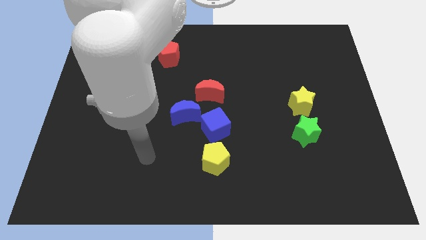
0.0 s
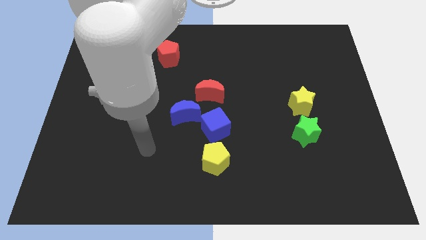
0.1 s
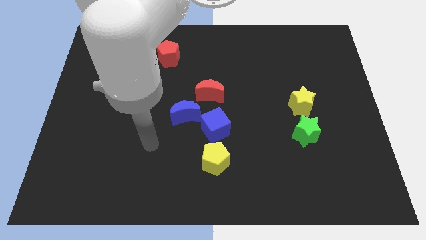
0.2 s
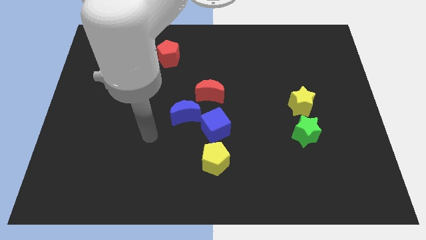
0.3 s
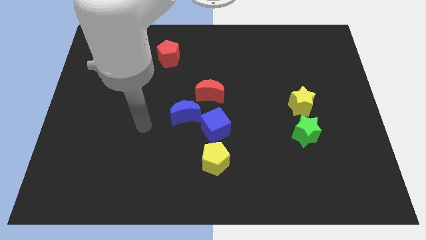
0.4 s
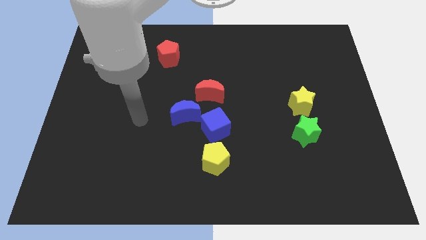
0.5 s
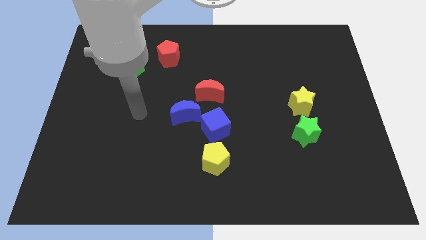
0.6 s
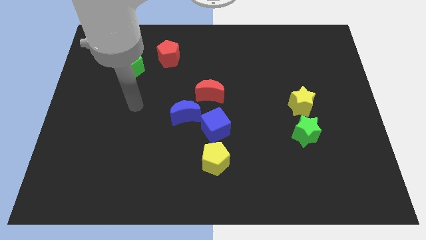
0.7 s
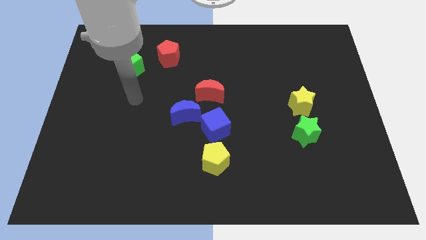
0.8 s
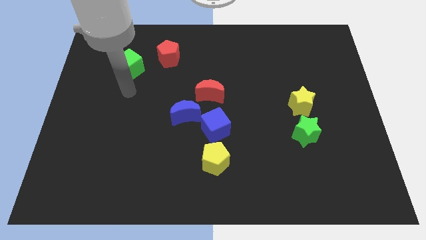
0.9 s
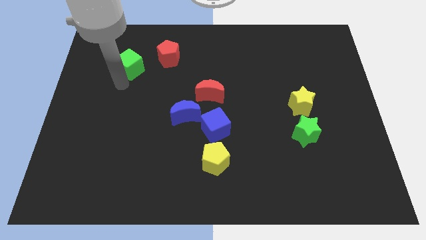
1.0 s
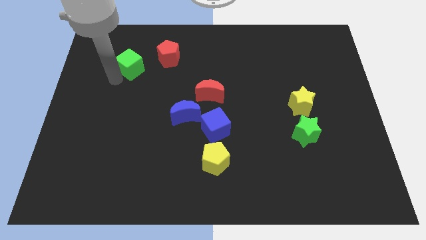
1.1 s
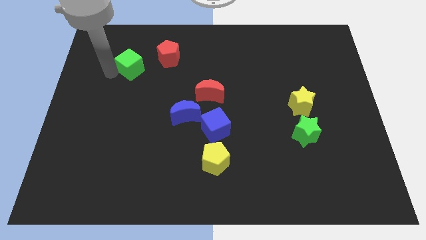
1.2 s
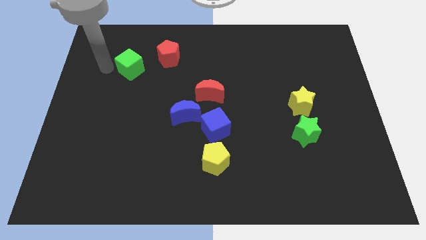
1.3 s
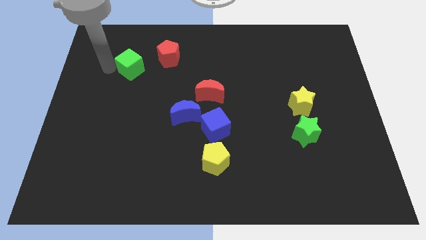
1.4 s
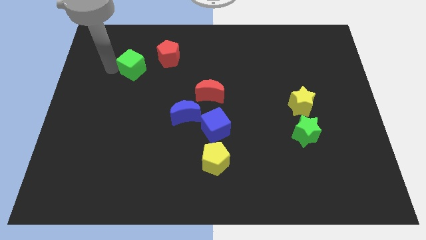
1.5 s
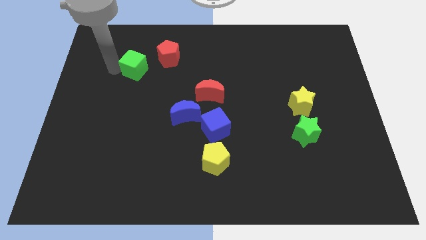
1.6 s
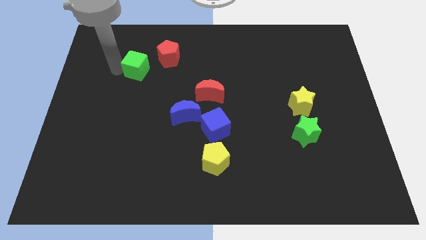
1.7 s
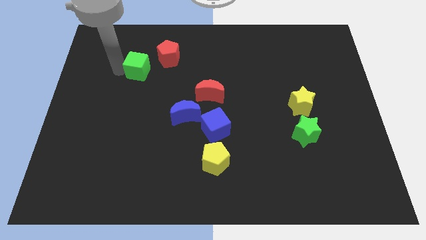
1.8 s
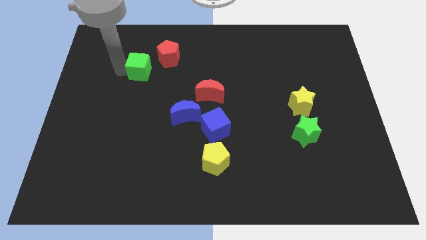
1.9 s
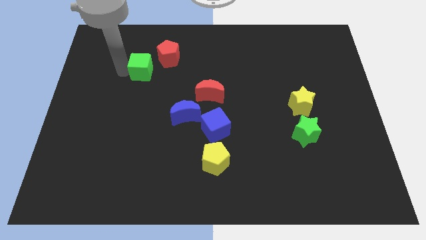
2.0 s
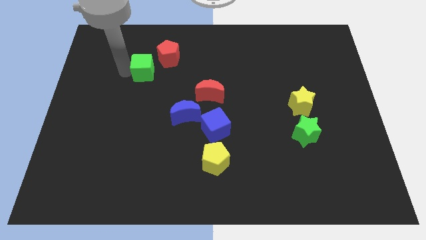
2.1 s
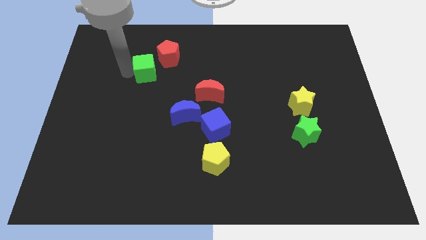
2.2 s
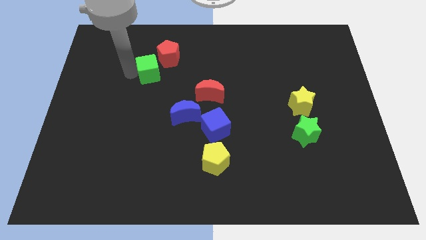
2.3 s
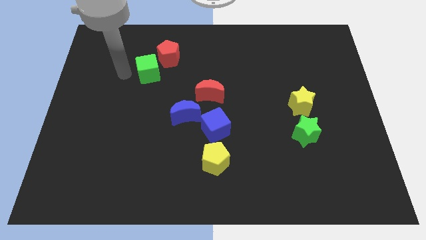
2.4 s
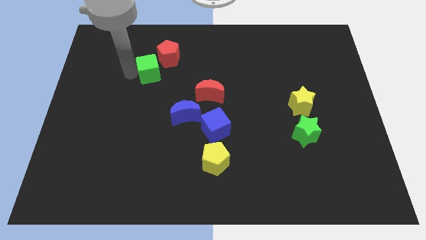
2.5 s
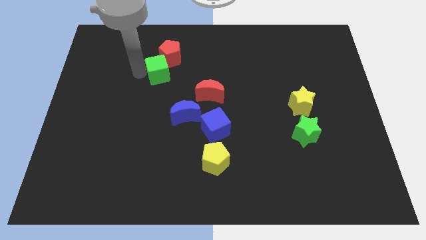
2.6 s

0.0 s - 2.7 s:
move the green cube to the right a little

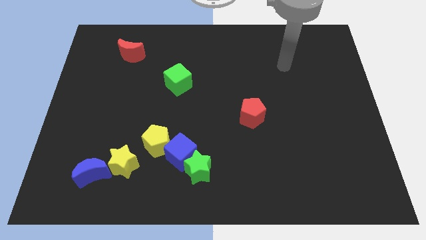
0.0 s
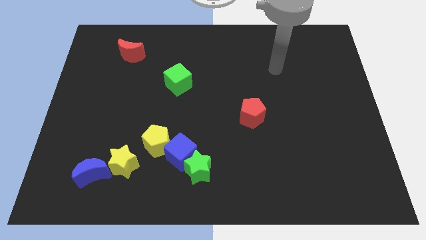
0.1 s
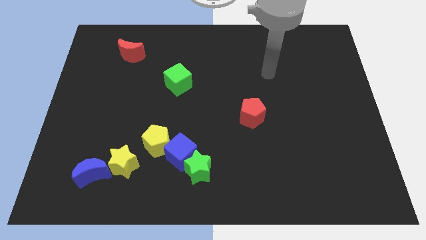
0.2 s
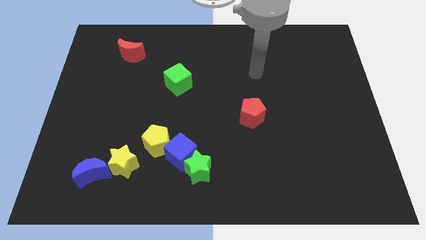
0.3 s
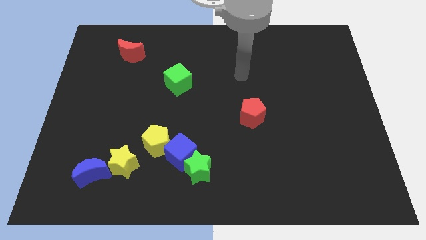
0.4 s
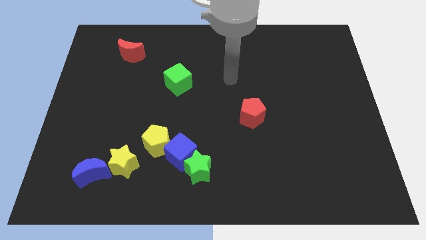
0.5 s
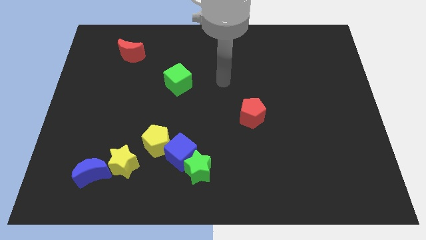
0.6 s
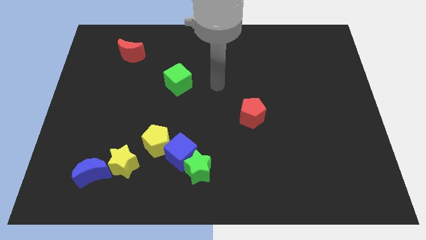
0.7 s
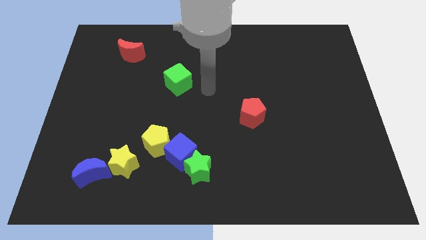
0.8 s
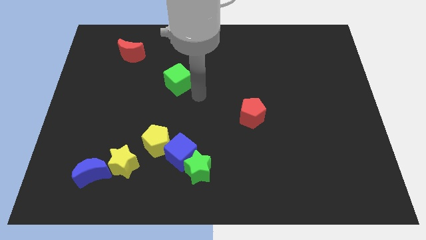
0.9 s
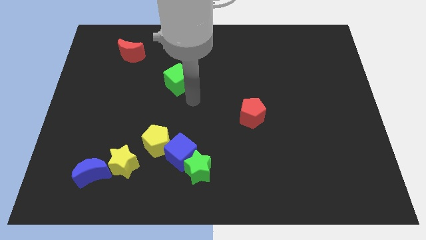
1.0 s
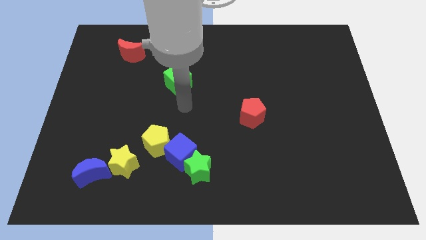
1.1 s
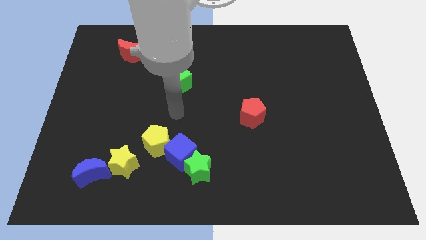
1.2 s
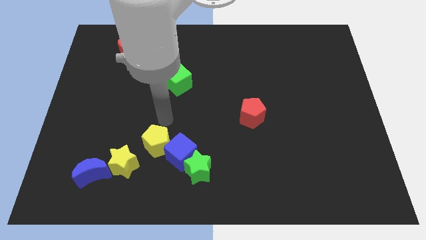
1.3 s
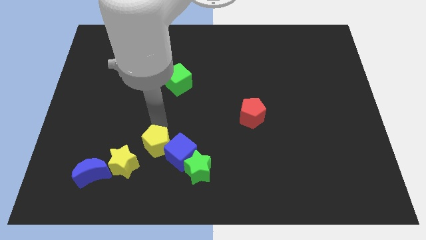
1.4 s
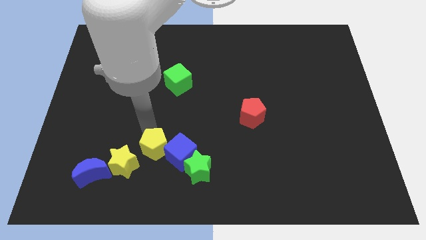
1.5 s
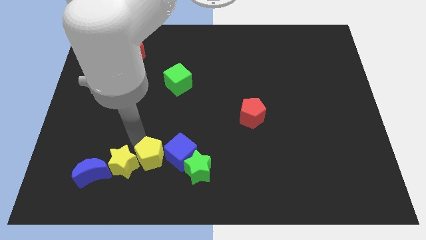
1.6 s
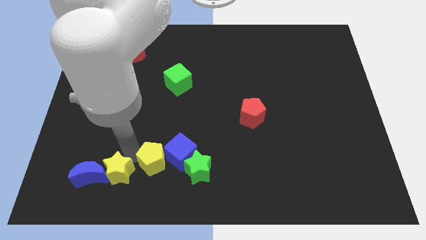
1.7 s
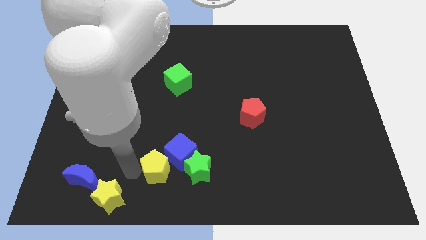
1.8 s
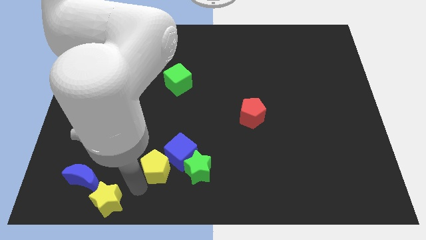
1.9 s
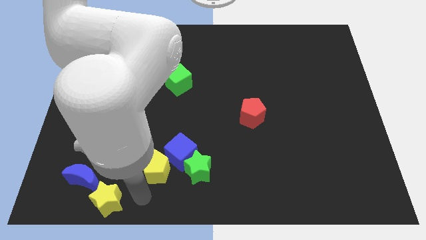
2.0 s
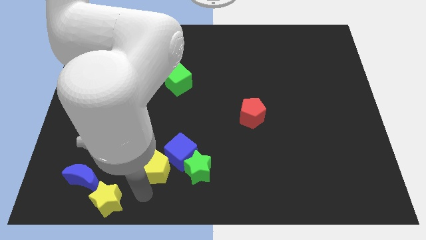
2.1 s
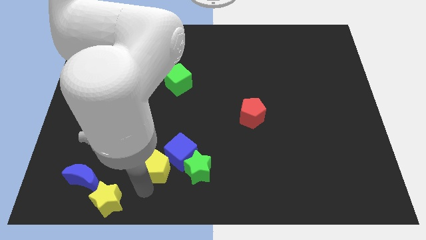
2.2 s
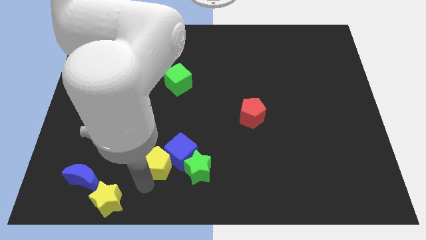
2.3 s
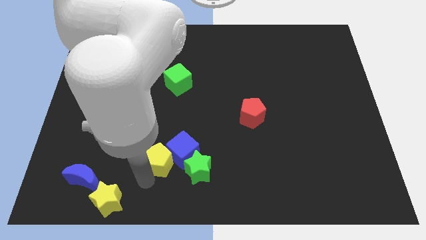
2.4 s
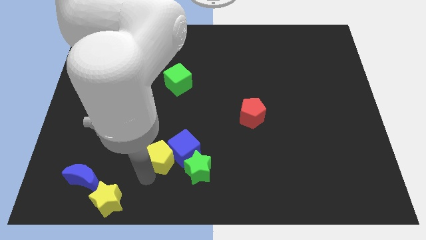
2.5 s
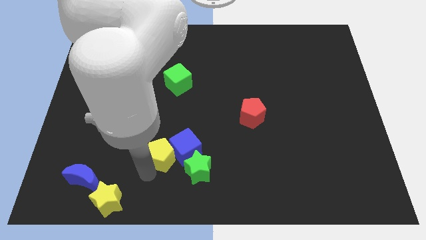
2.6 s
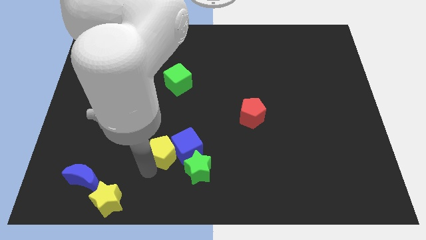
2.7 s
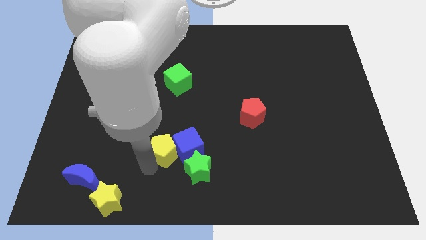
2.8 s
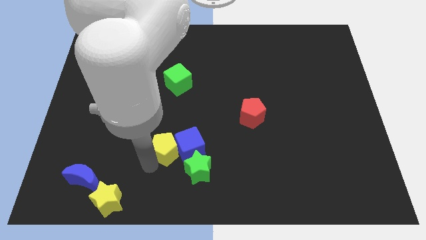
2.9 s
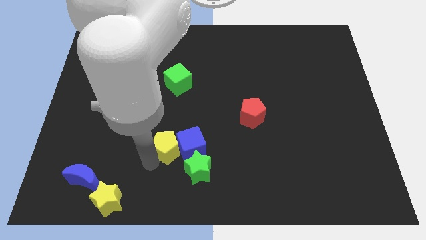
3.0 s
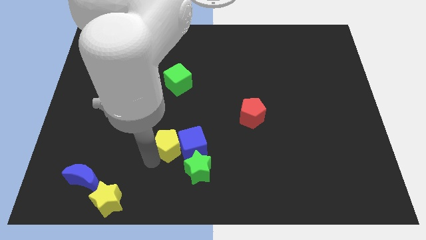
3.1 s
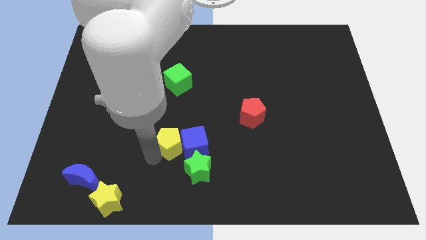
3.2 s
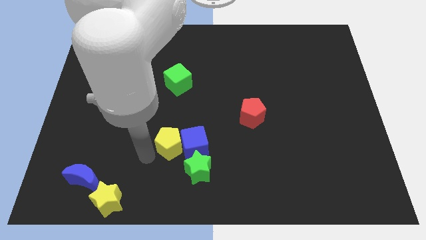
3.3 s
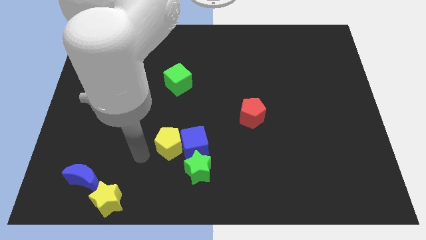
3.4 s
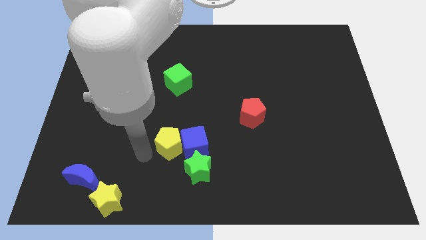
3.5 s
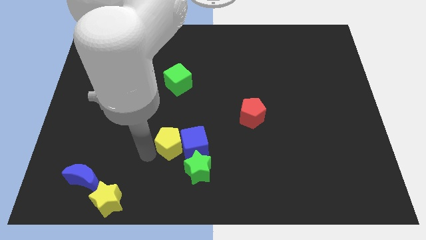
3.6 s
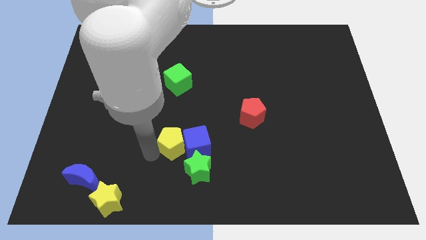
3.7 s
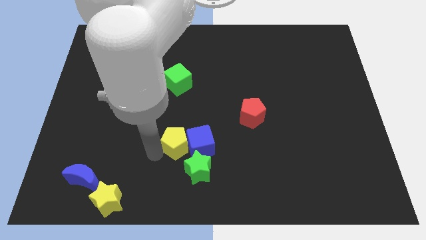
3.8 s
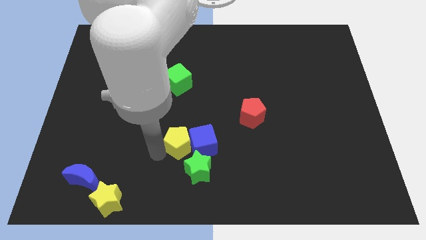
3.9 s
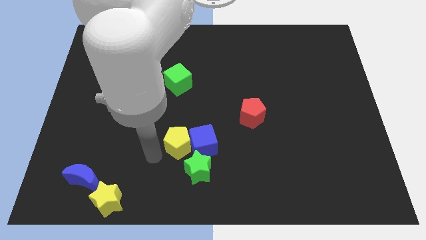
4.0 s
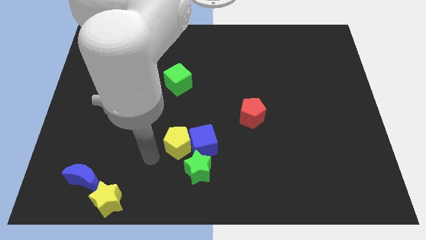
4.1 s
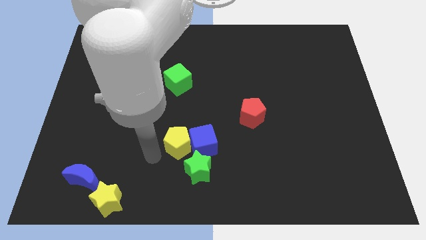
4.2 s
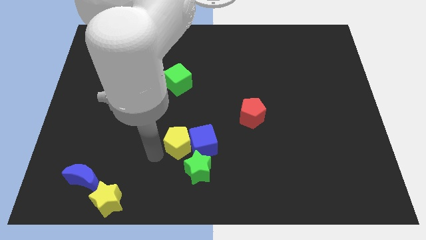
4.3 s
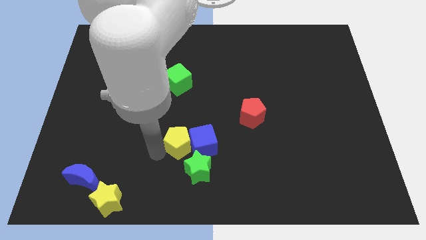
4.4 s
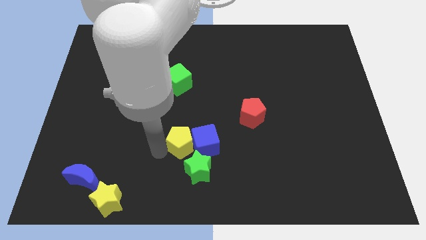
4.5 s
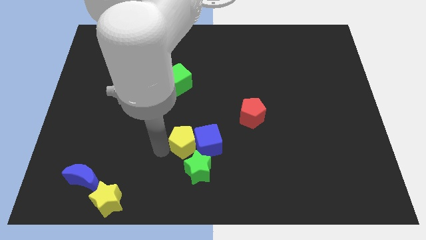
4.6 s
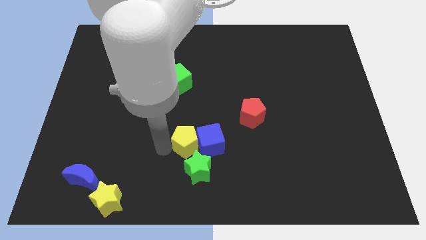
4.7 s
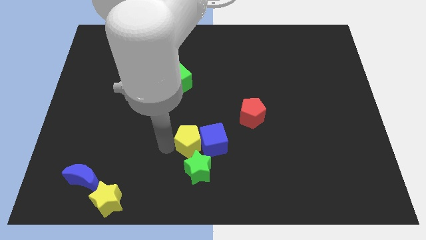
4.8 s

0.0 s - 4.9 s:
slide the yellow pentagon right somewhat

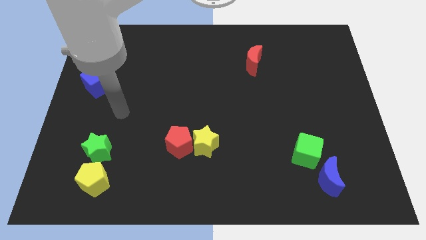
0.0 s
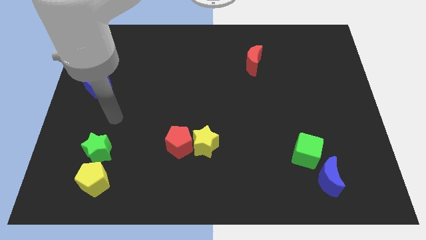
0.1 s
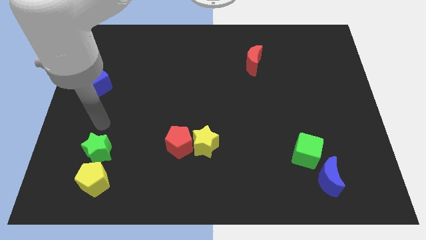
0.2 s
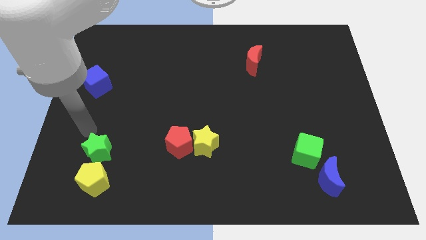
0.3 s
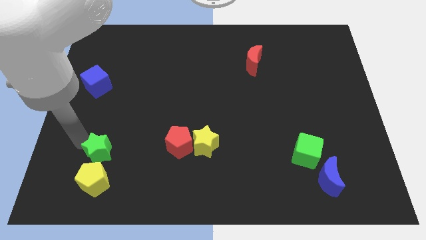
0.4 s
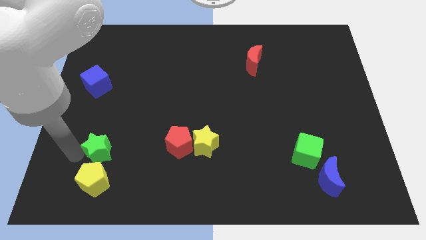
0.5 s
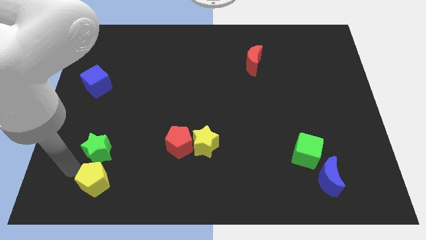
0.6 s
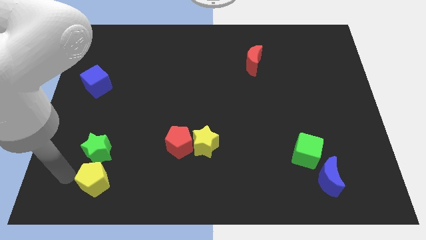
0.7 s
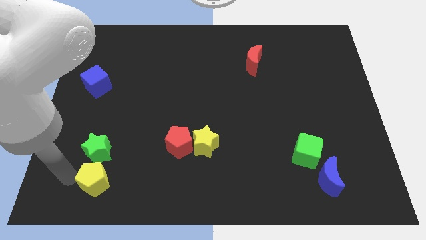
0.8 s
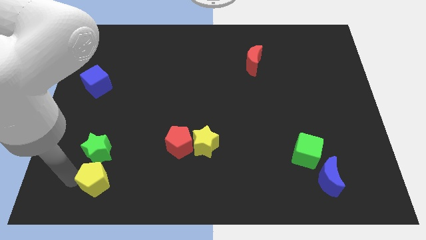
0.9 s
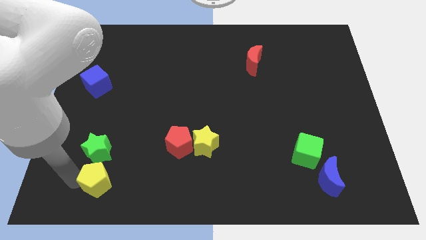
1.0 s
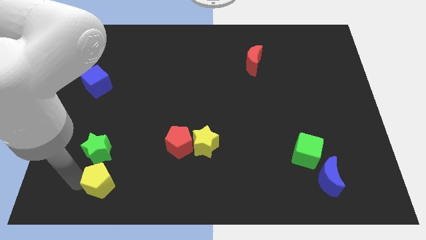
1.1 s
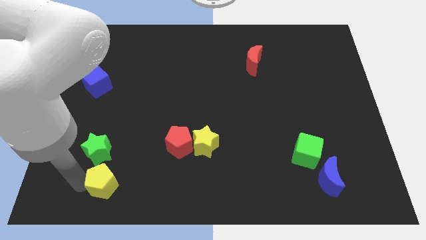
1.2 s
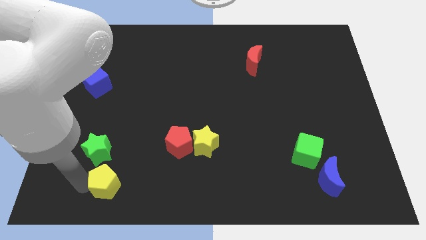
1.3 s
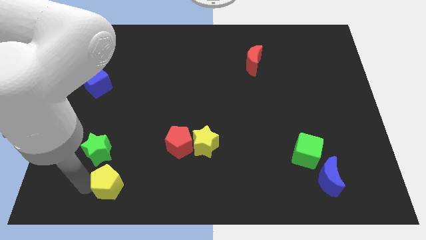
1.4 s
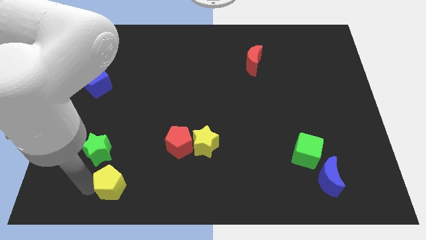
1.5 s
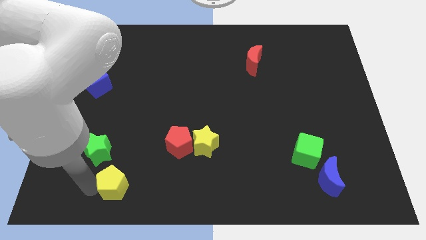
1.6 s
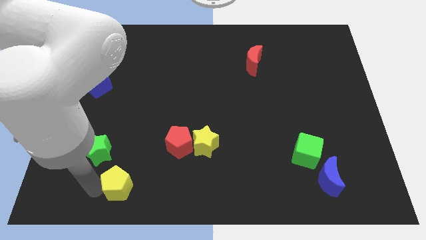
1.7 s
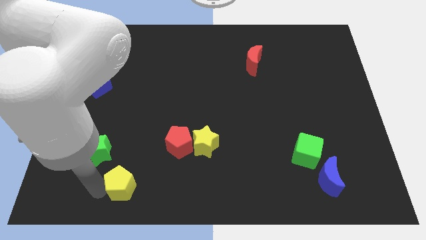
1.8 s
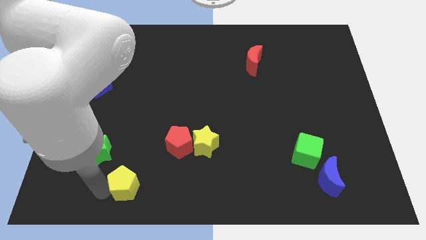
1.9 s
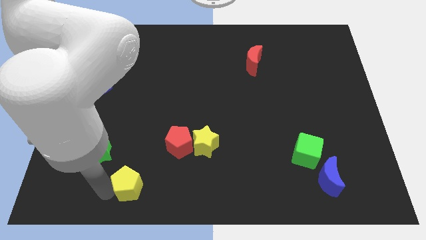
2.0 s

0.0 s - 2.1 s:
slide the yellow pentagon a little bit to the right
